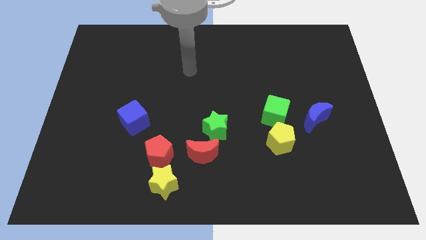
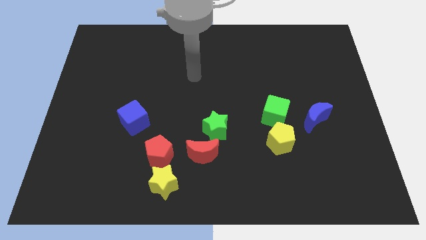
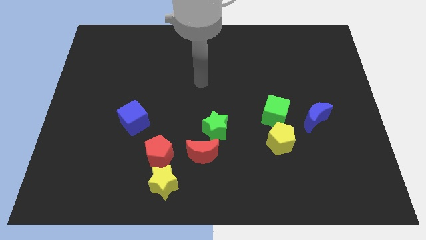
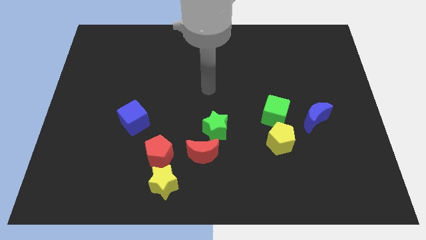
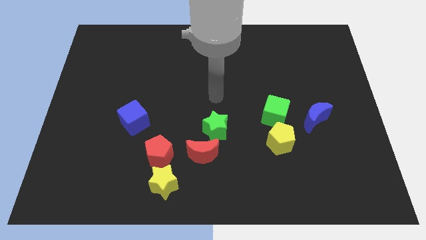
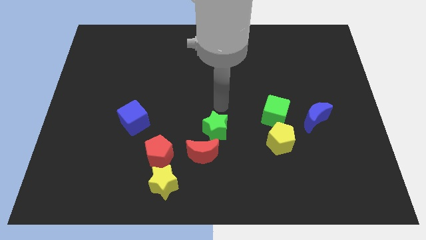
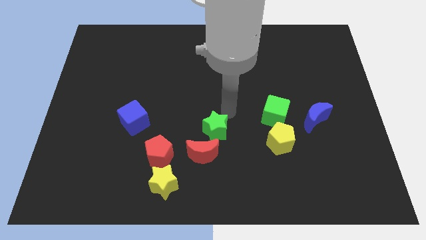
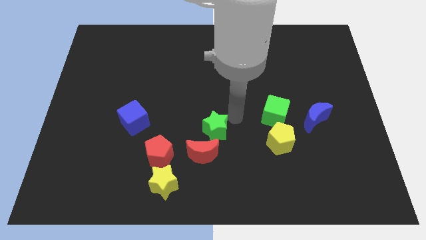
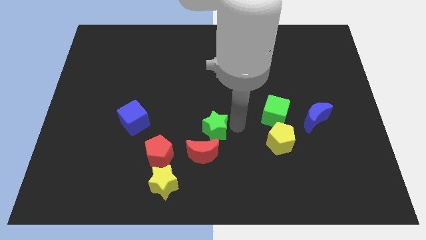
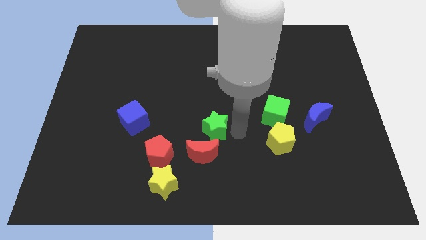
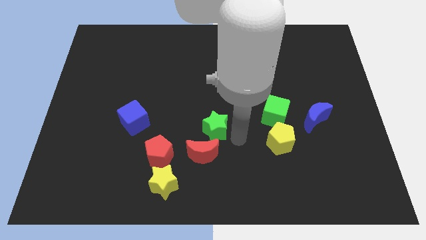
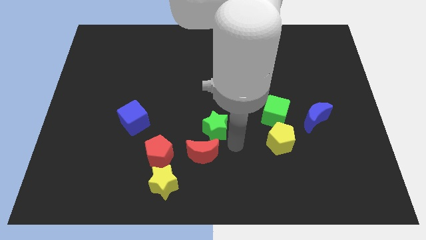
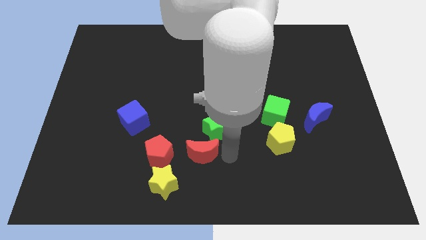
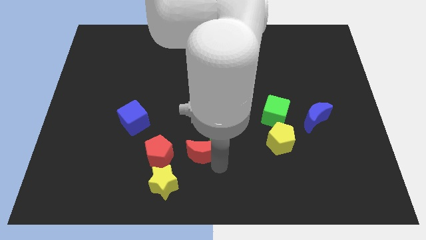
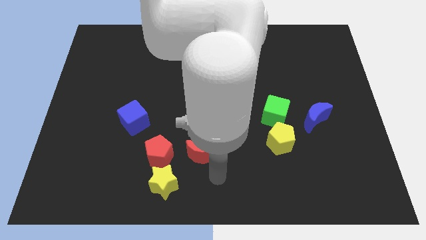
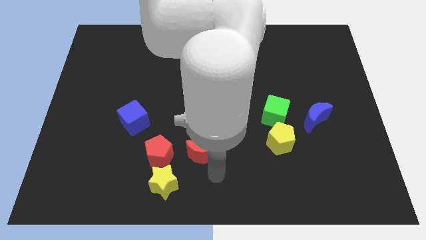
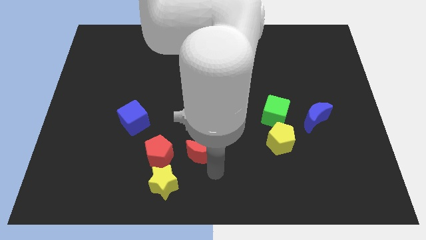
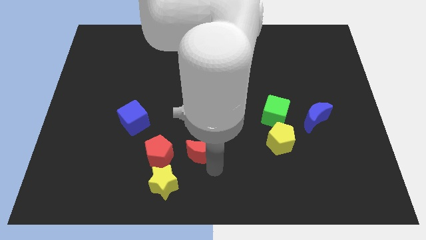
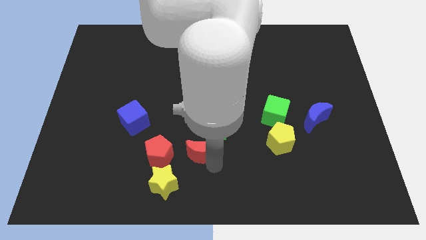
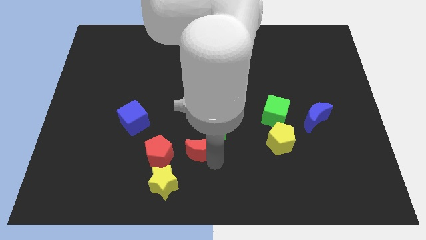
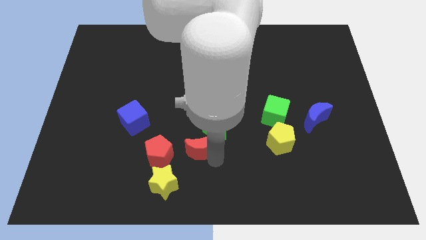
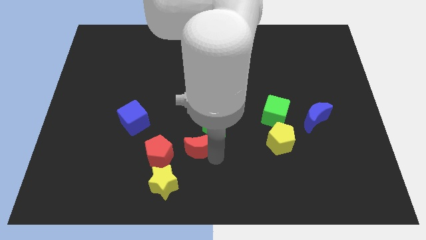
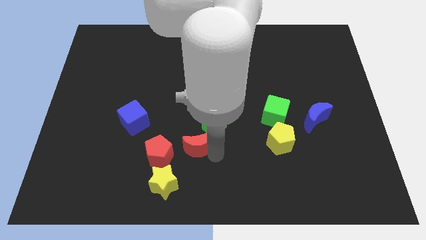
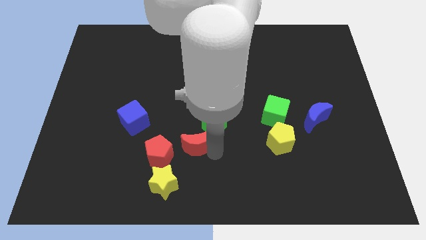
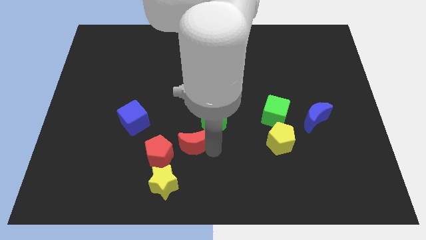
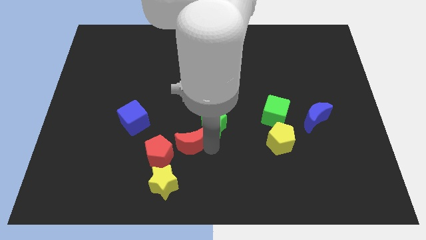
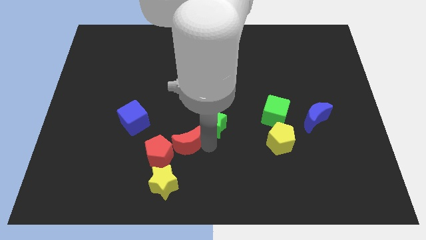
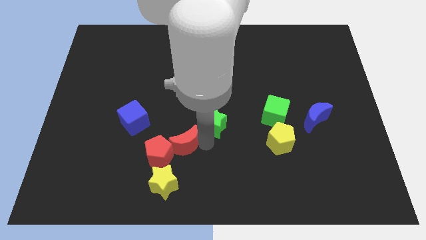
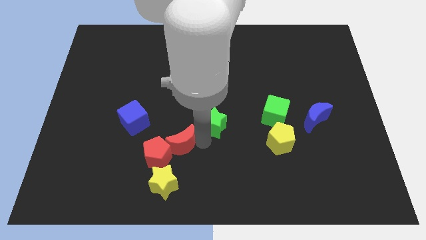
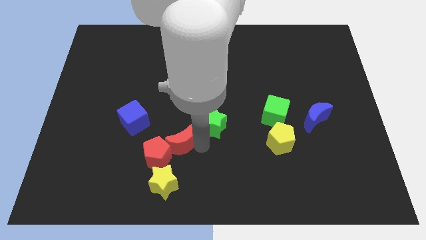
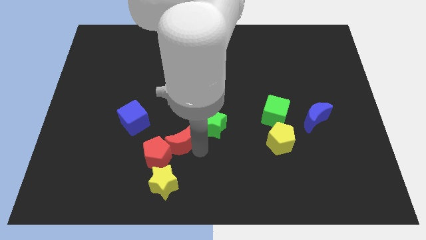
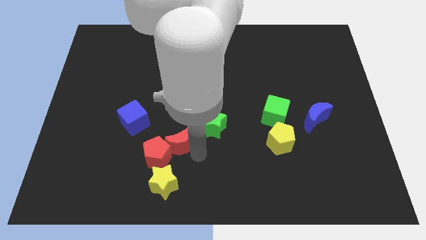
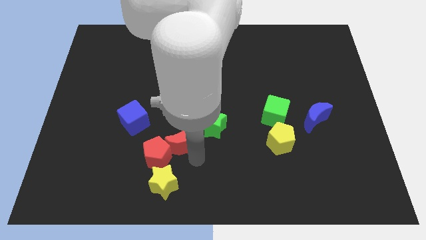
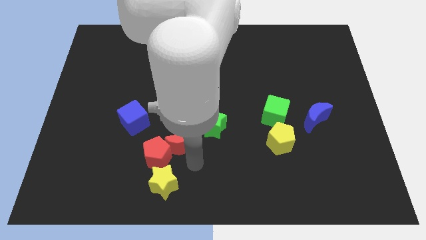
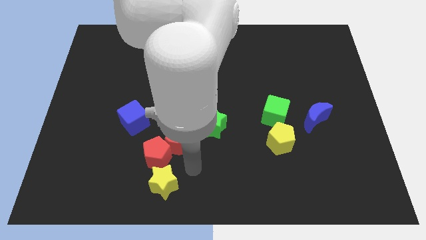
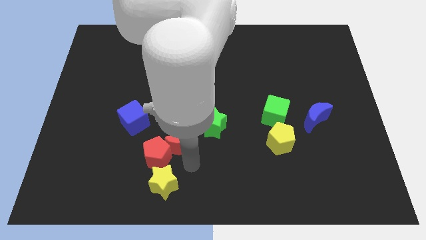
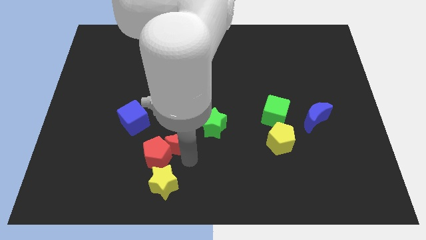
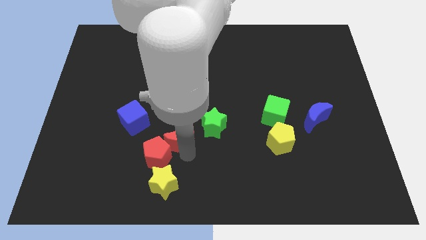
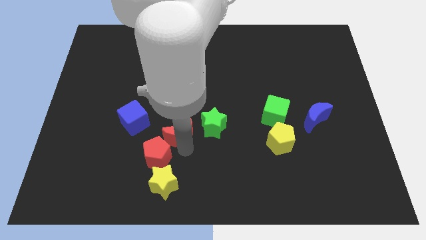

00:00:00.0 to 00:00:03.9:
push the red moon somewhat upwards and left

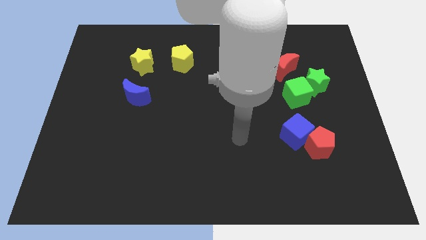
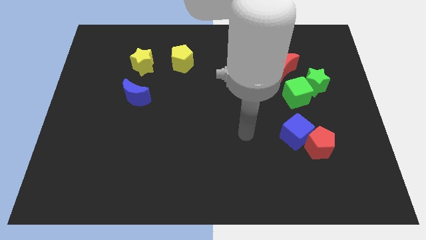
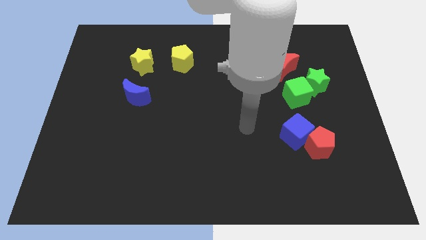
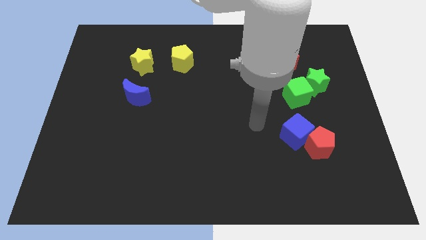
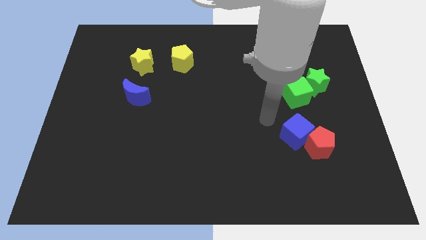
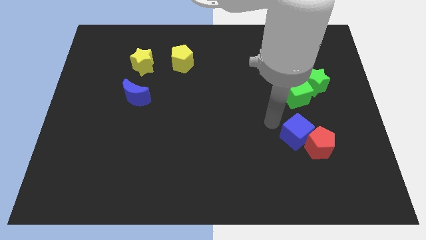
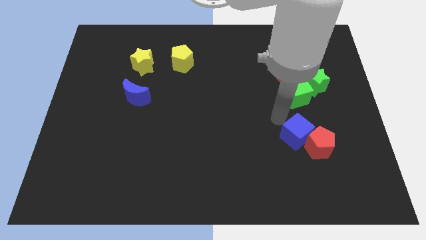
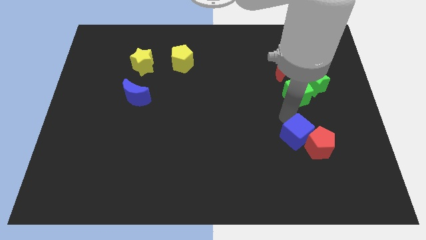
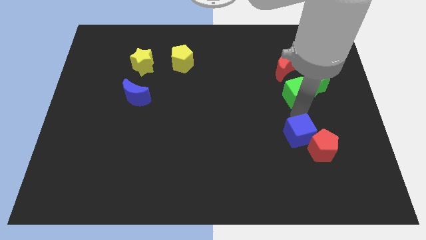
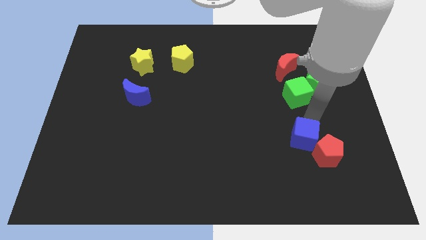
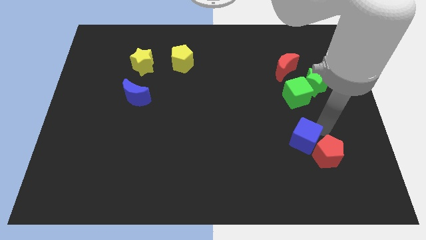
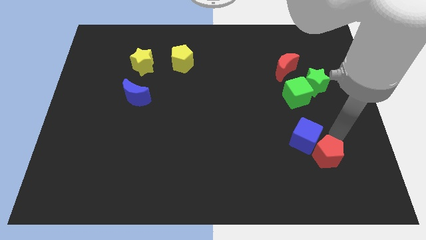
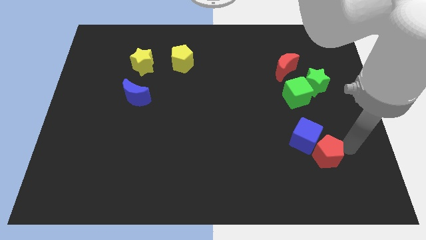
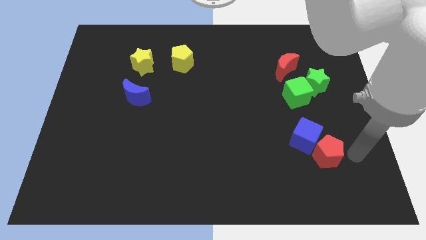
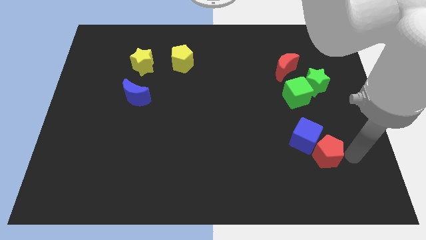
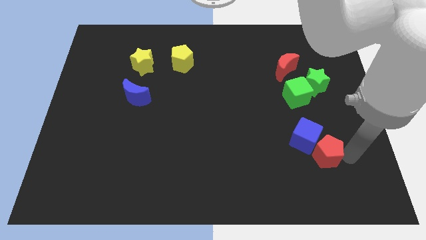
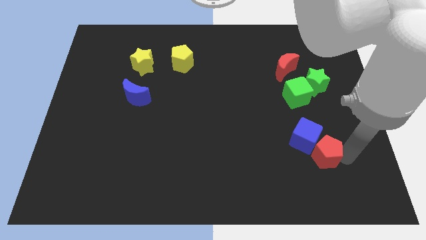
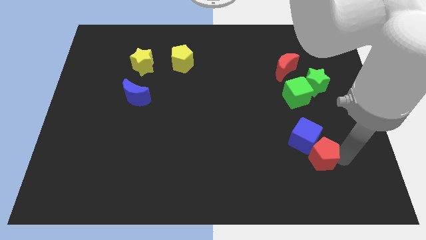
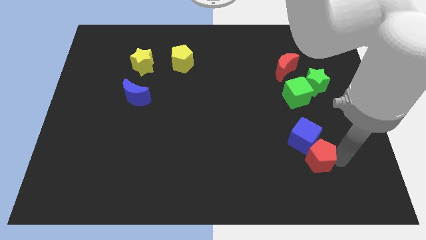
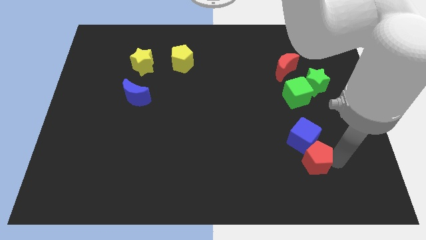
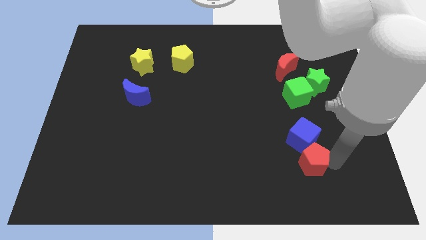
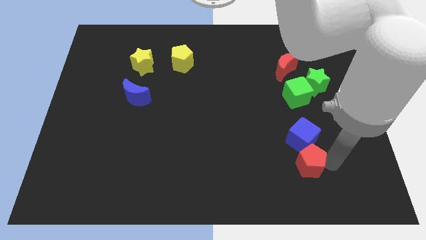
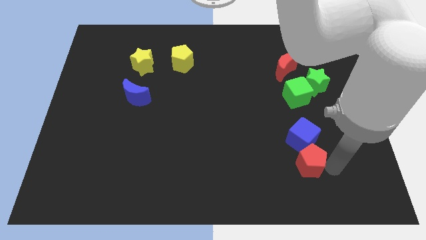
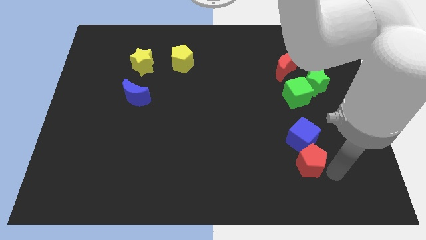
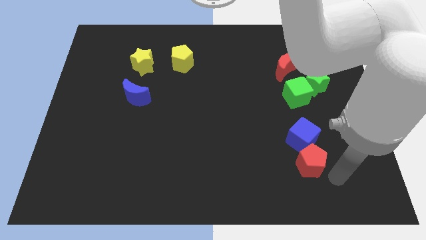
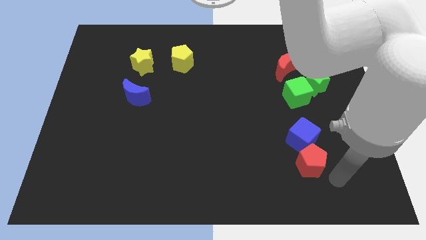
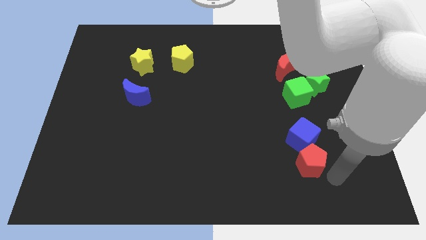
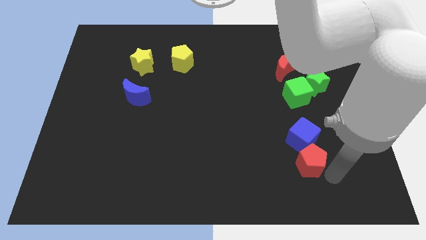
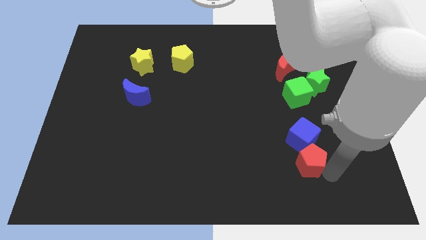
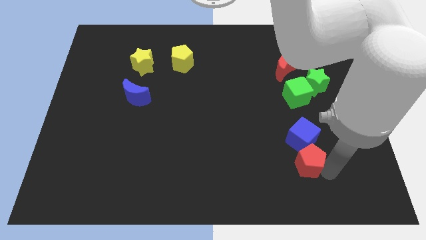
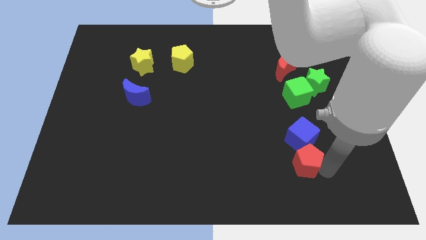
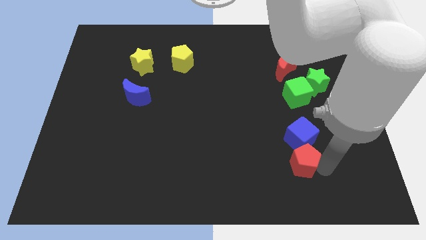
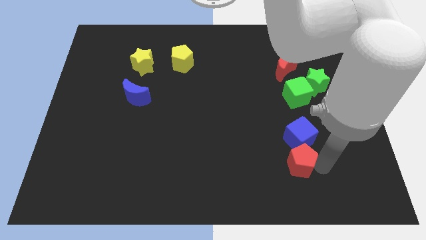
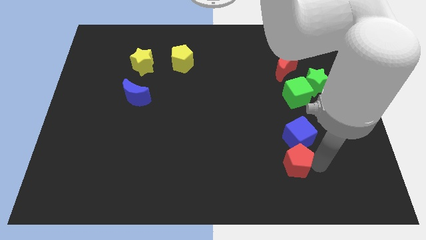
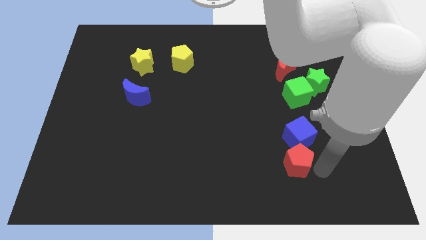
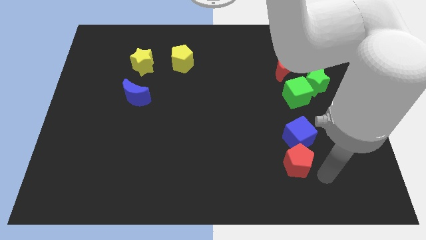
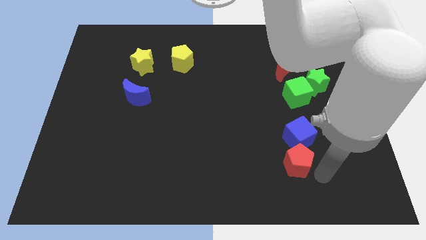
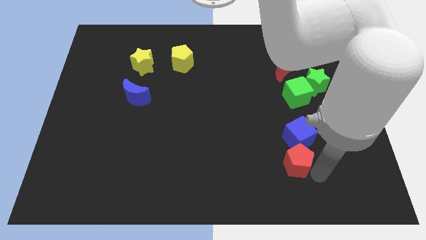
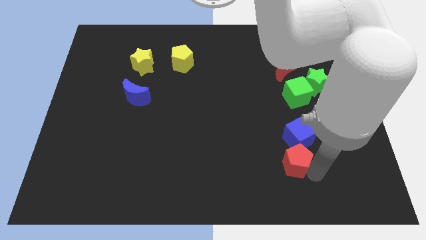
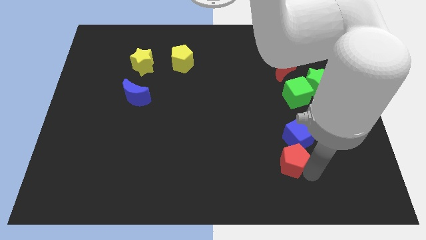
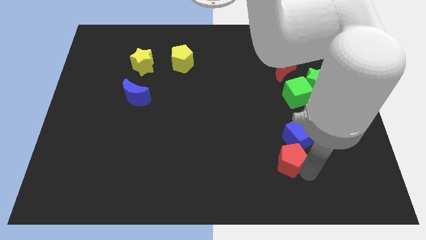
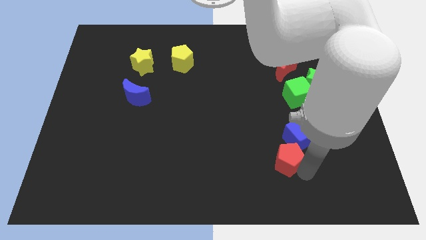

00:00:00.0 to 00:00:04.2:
slide the red pentagon left a little

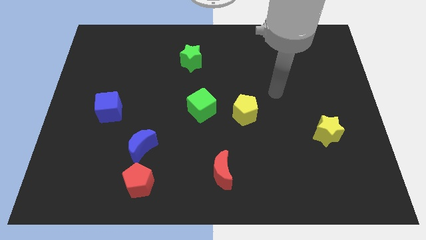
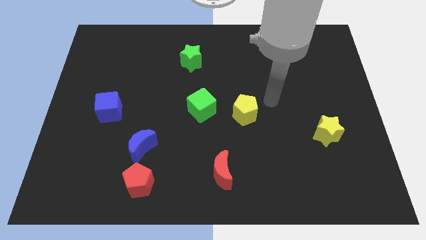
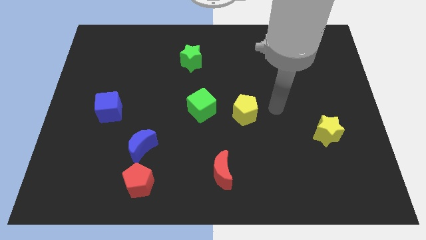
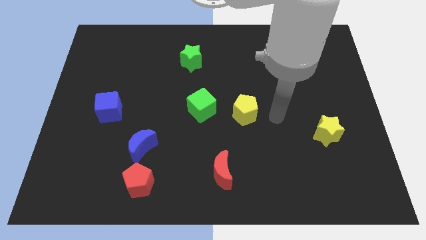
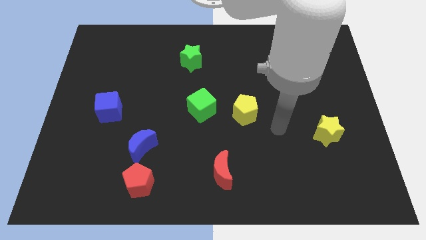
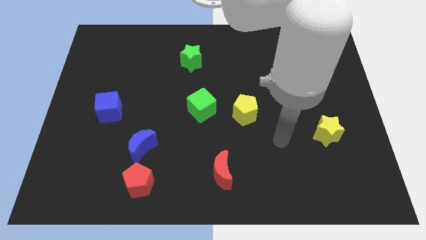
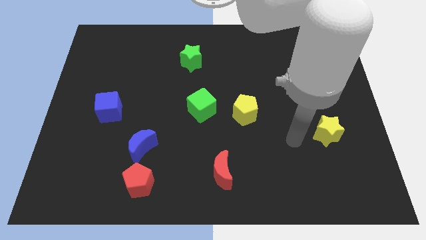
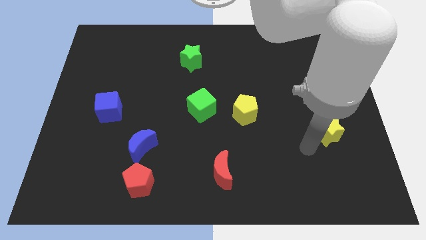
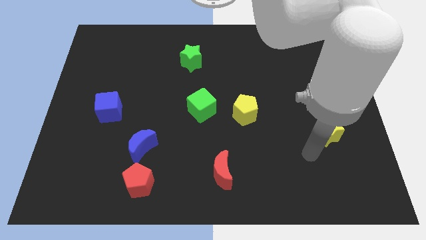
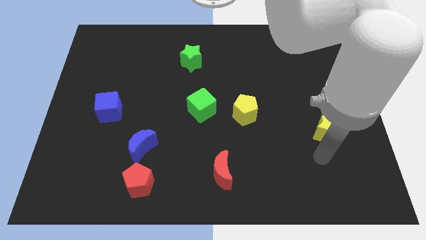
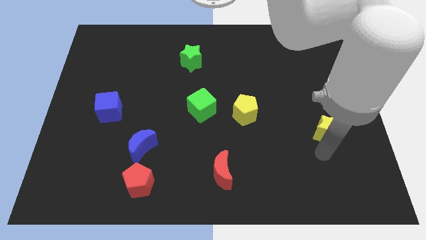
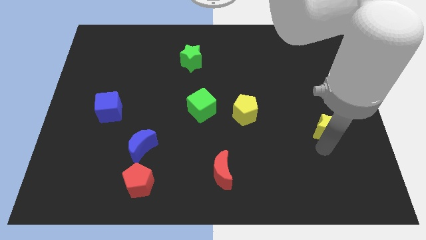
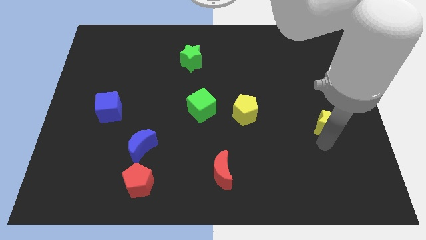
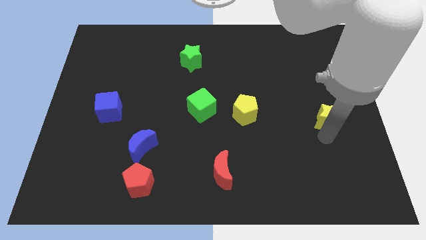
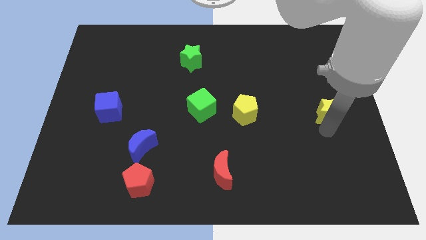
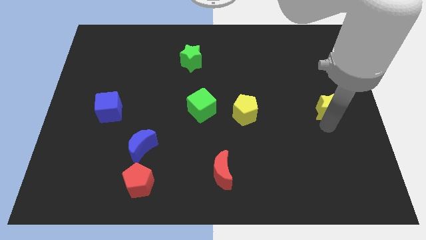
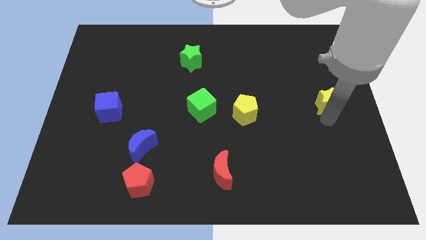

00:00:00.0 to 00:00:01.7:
slightly move the yellow star up
